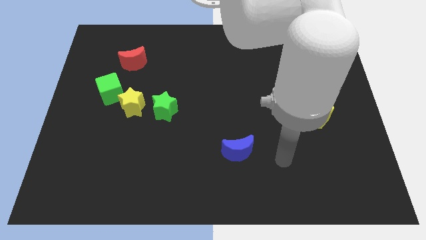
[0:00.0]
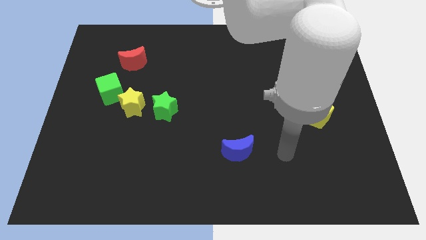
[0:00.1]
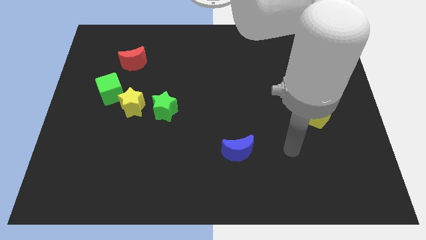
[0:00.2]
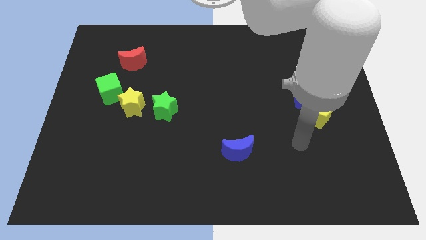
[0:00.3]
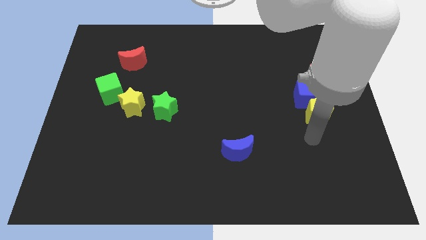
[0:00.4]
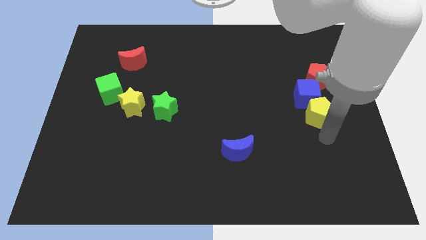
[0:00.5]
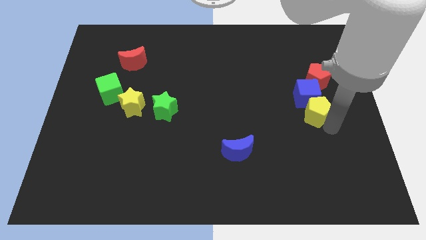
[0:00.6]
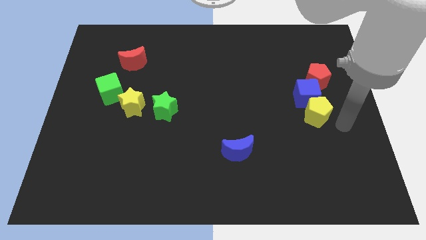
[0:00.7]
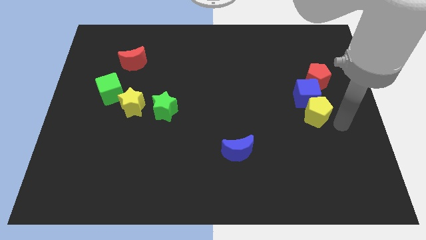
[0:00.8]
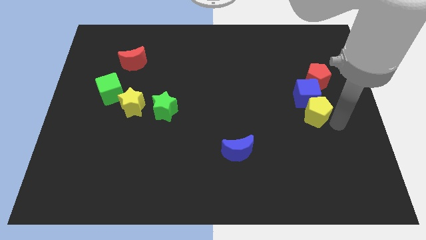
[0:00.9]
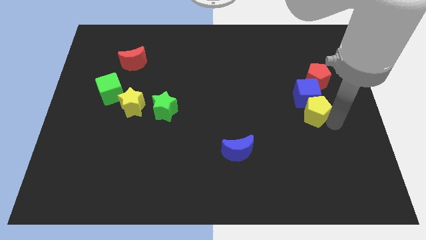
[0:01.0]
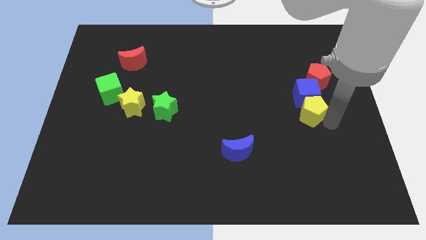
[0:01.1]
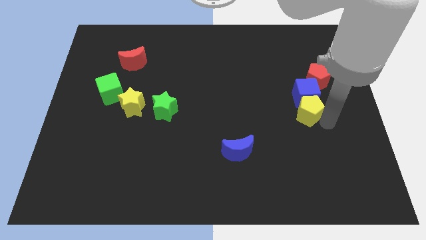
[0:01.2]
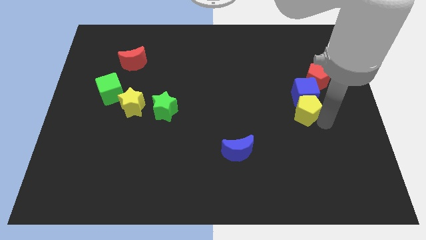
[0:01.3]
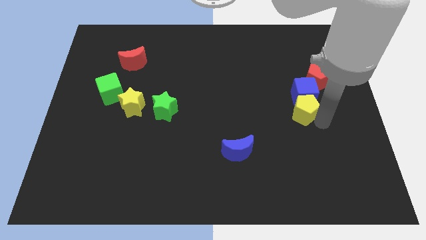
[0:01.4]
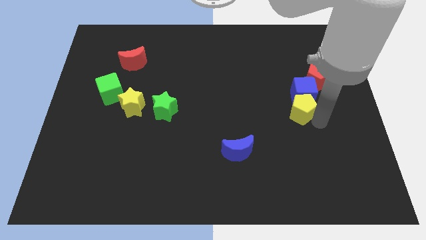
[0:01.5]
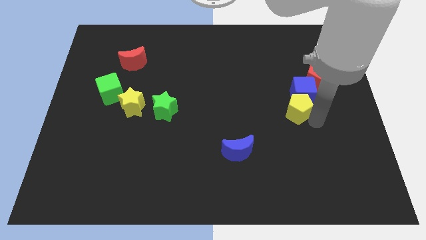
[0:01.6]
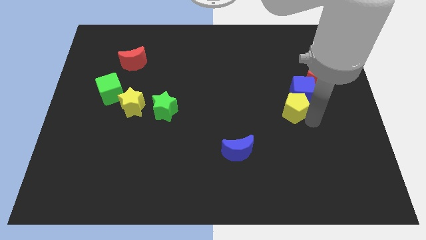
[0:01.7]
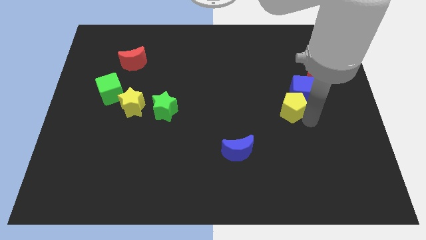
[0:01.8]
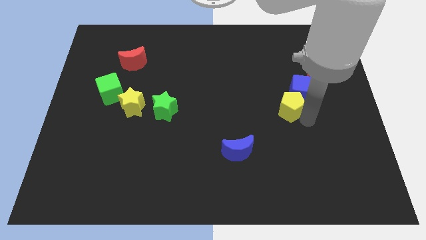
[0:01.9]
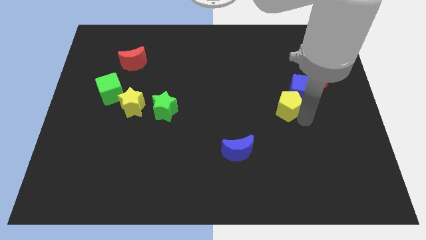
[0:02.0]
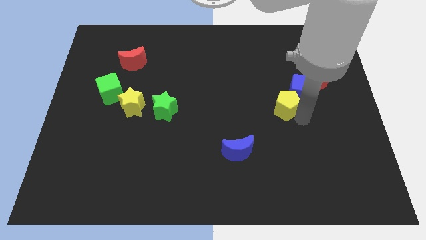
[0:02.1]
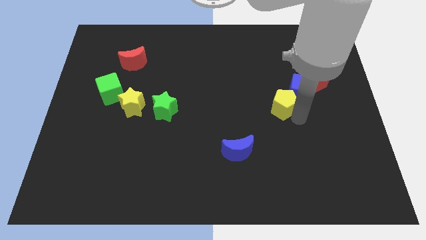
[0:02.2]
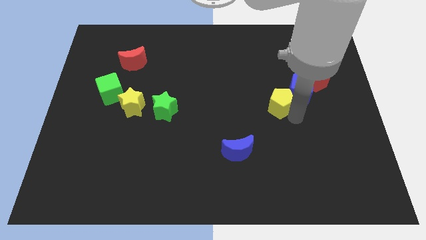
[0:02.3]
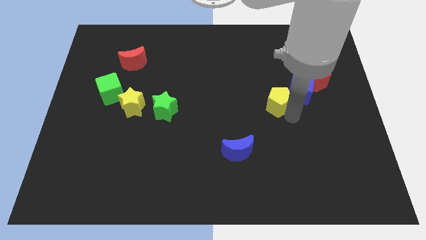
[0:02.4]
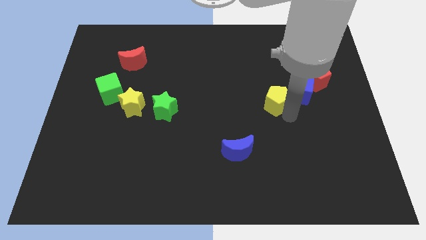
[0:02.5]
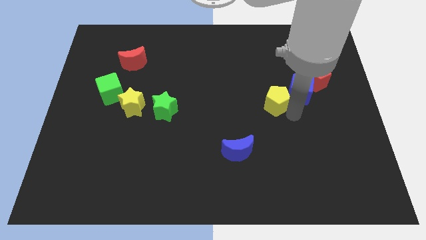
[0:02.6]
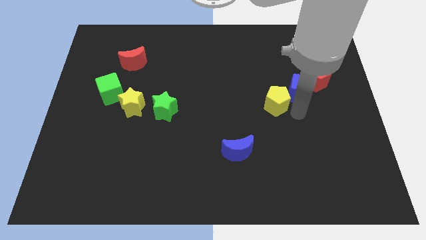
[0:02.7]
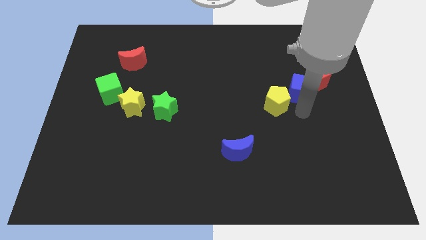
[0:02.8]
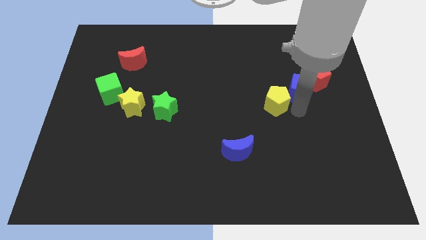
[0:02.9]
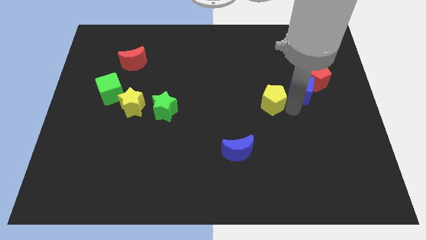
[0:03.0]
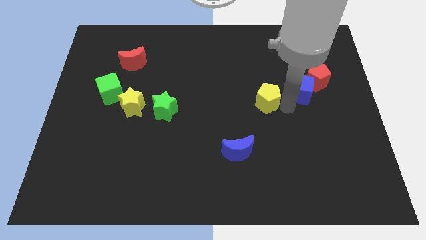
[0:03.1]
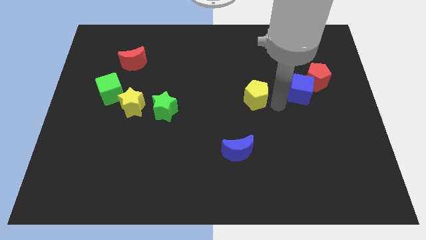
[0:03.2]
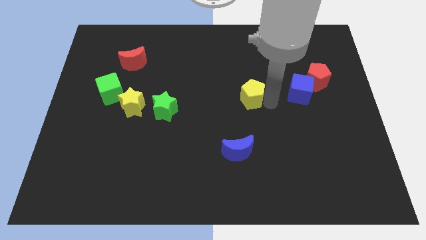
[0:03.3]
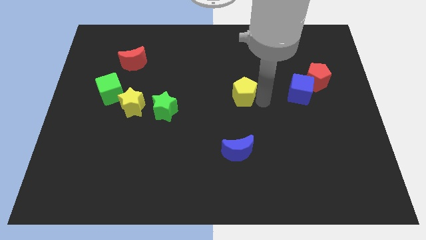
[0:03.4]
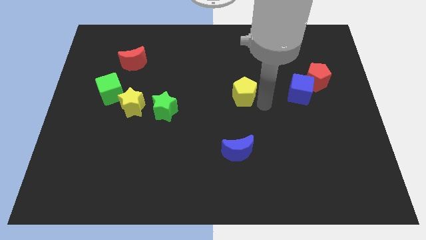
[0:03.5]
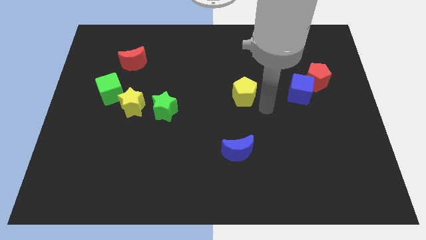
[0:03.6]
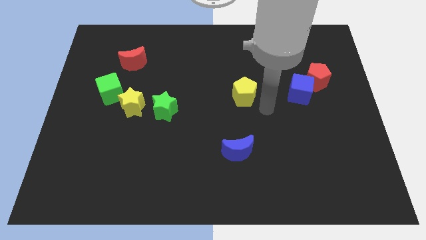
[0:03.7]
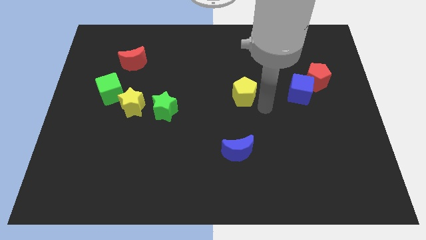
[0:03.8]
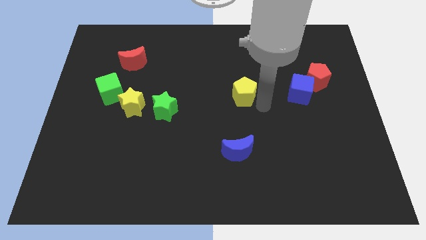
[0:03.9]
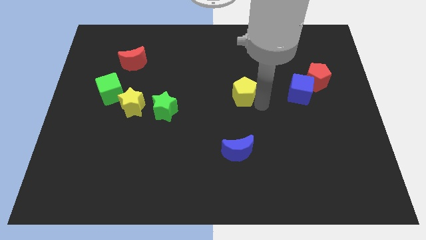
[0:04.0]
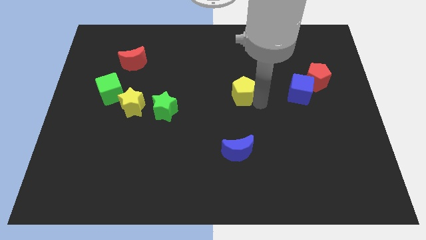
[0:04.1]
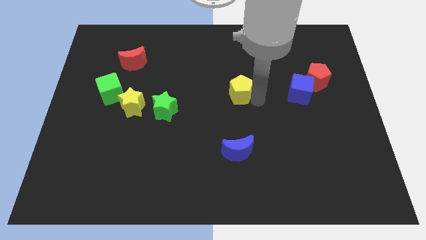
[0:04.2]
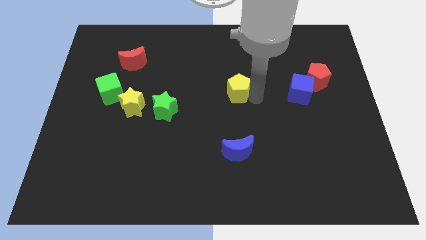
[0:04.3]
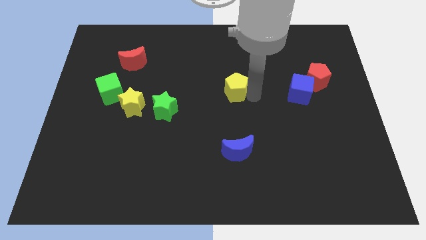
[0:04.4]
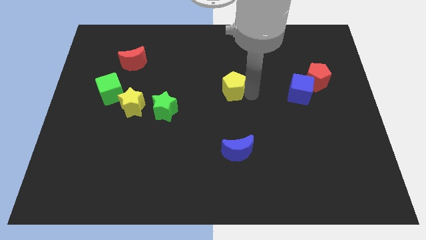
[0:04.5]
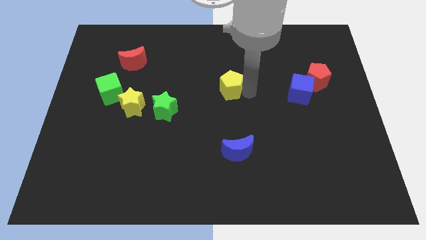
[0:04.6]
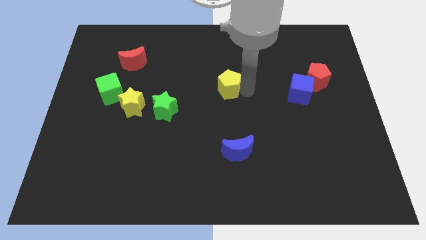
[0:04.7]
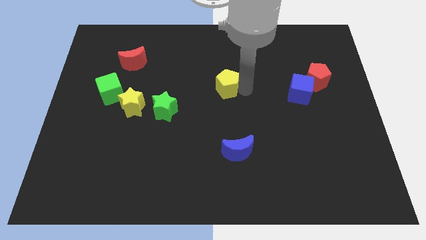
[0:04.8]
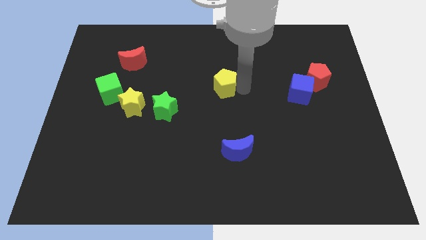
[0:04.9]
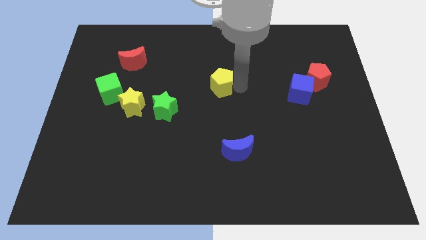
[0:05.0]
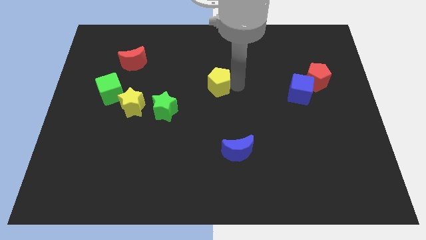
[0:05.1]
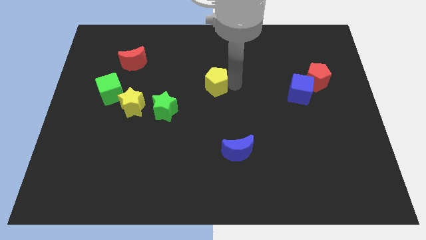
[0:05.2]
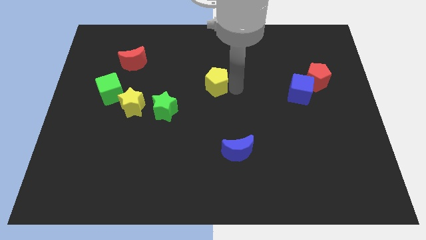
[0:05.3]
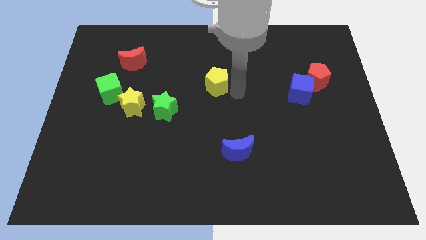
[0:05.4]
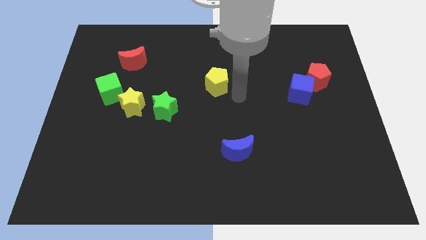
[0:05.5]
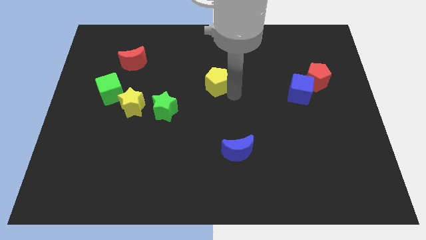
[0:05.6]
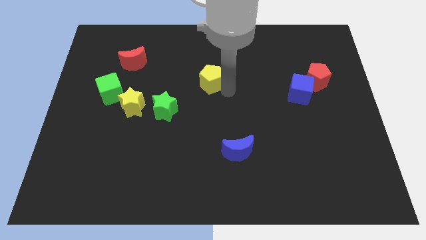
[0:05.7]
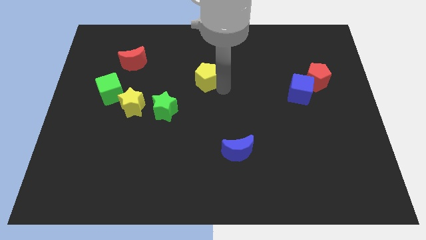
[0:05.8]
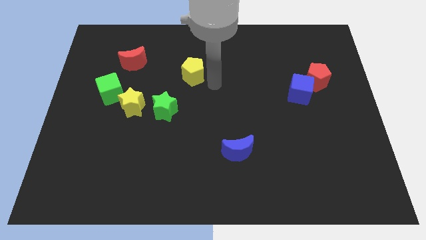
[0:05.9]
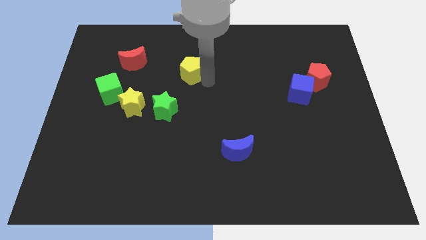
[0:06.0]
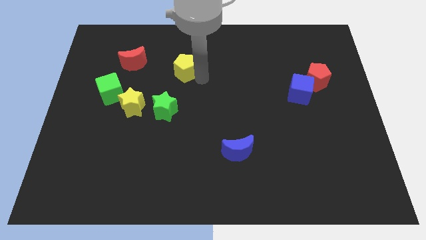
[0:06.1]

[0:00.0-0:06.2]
slide the yellow pentagon just right of the red moon
